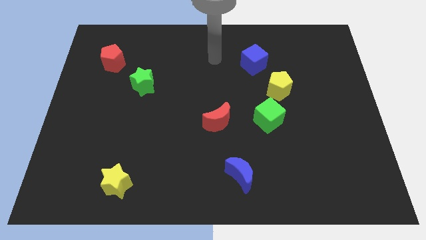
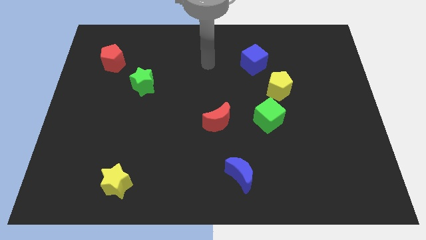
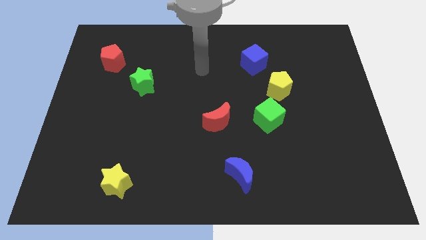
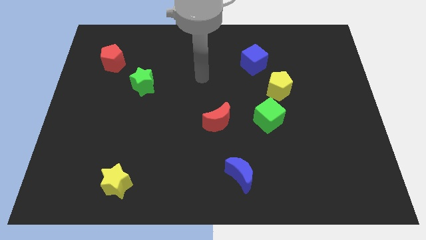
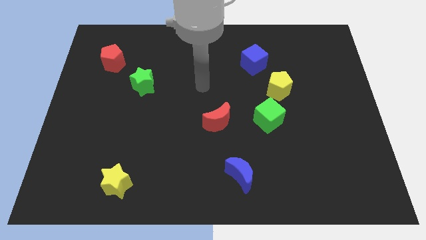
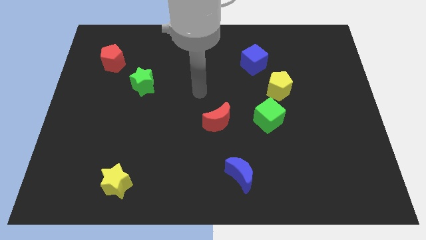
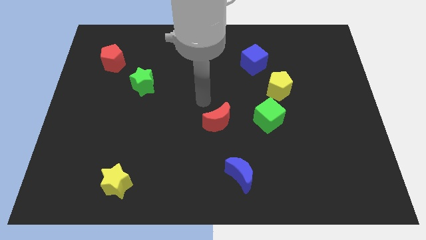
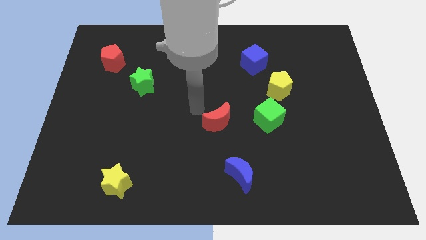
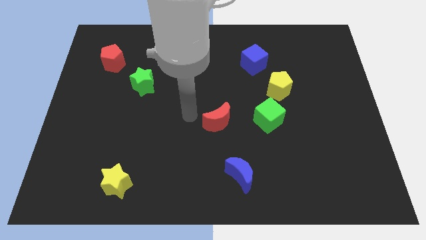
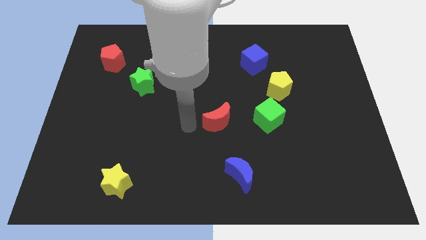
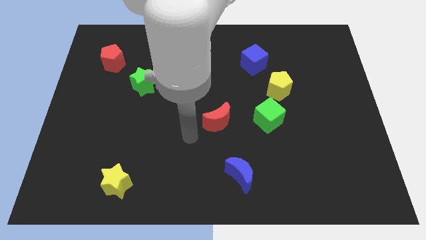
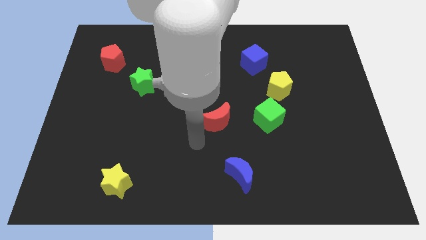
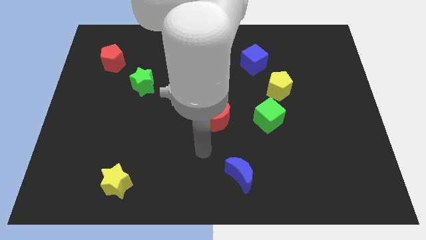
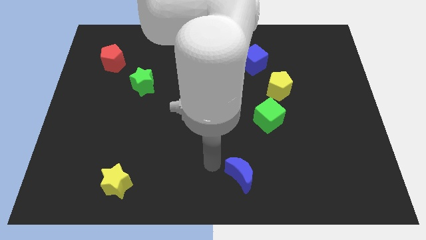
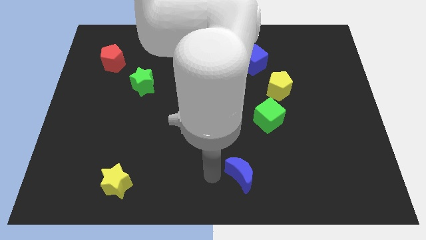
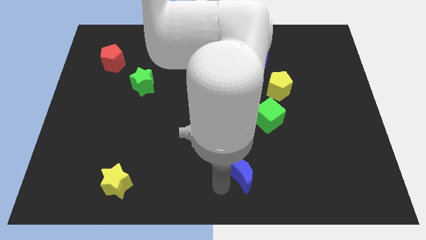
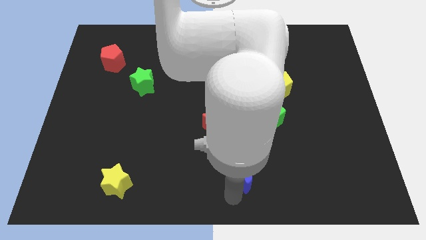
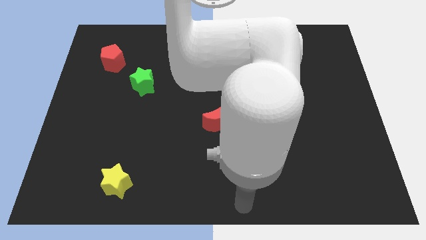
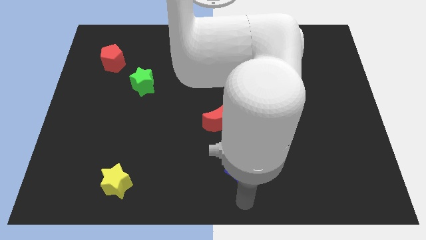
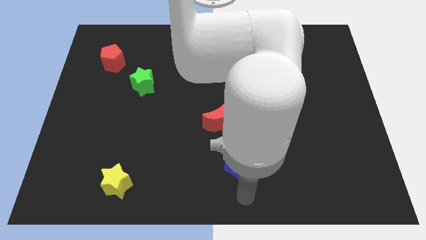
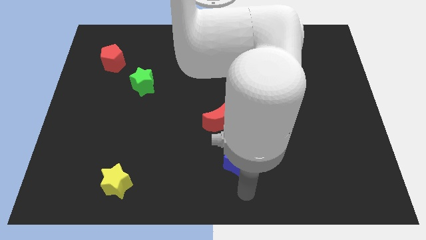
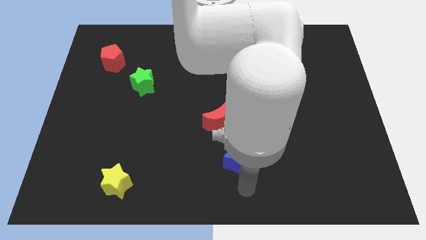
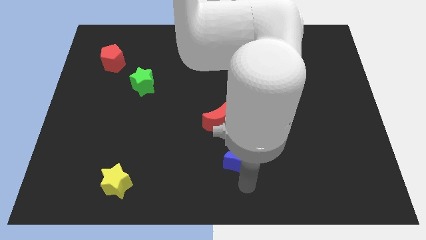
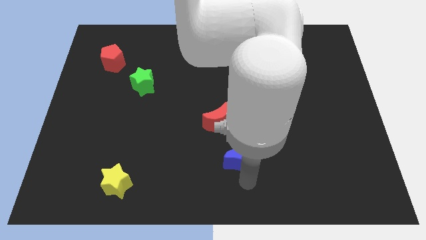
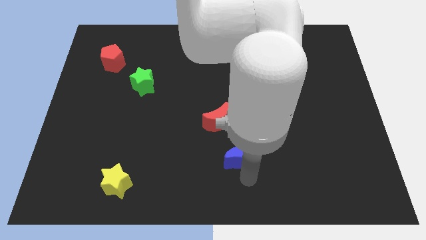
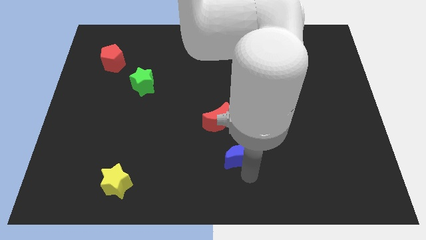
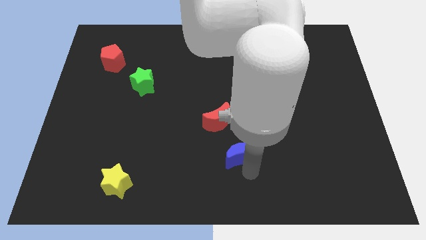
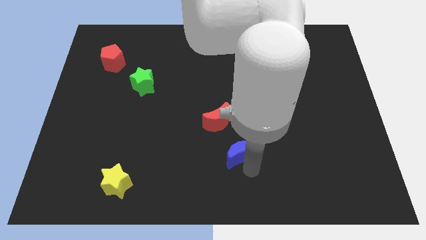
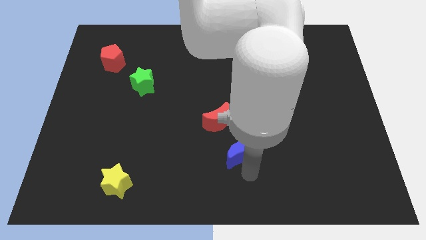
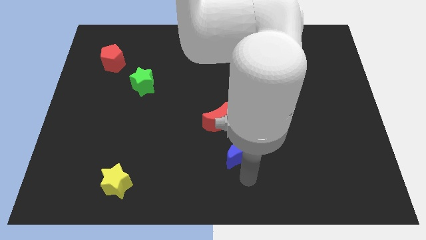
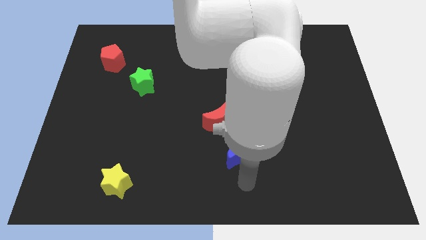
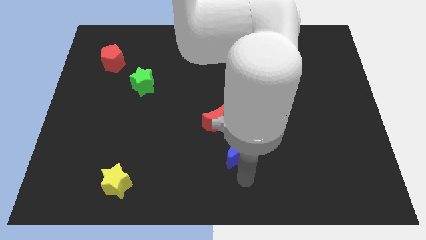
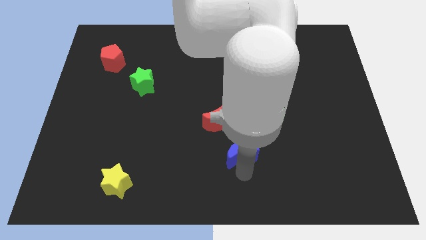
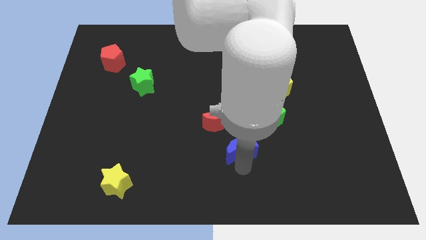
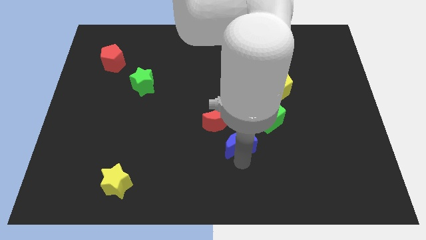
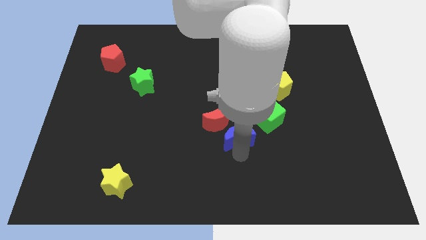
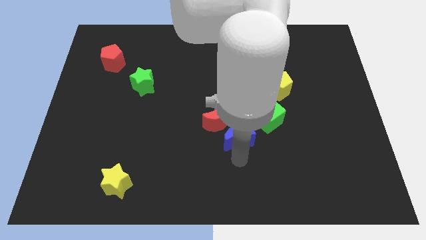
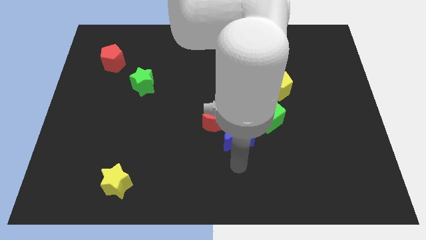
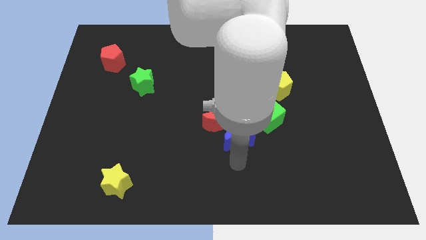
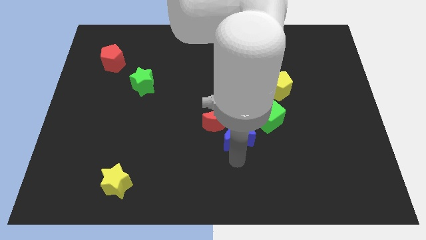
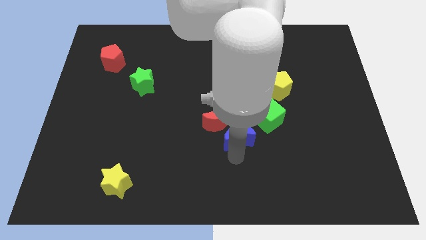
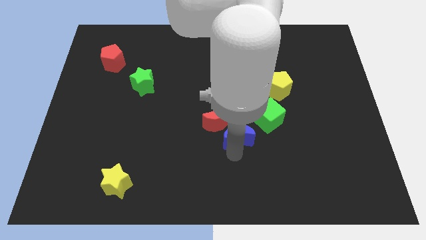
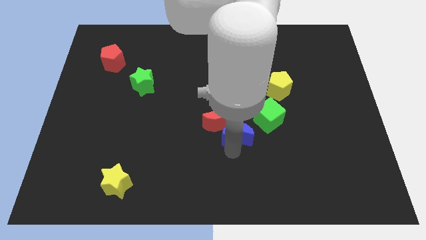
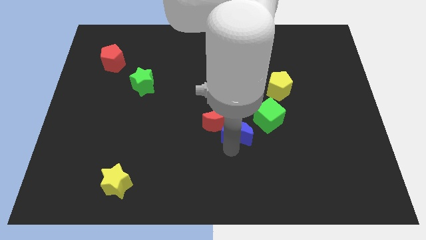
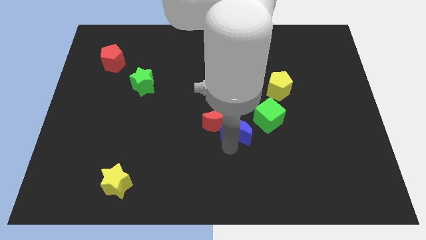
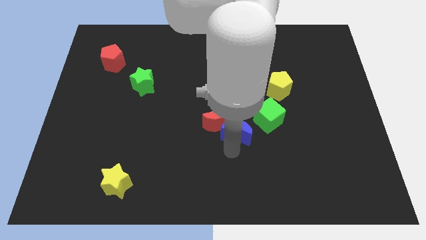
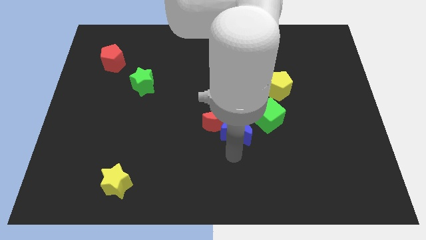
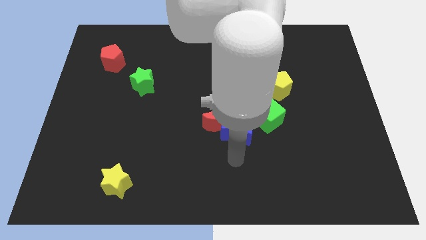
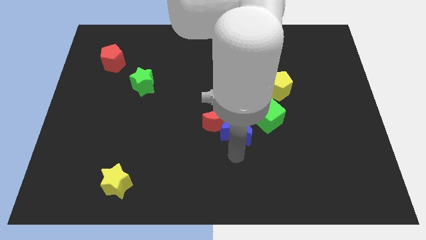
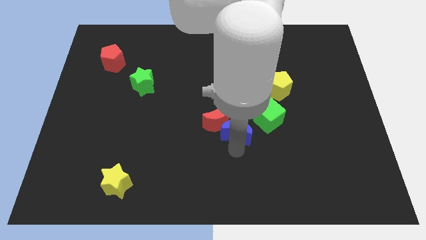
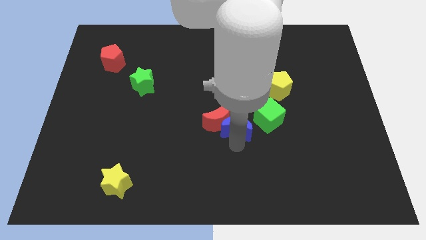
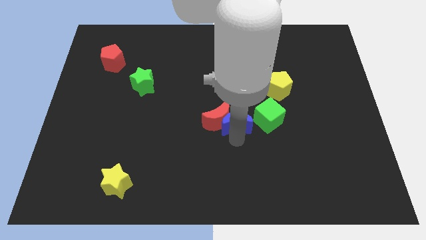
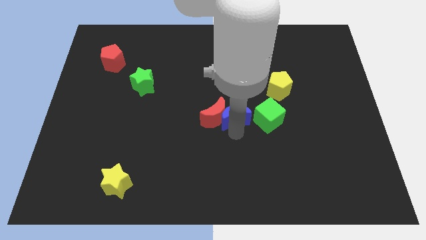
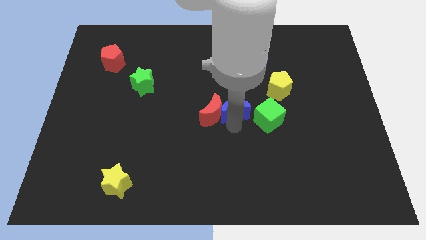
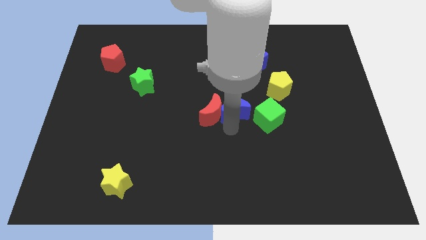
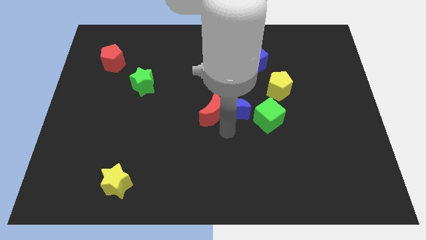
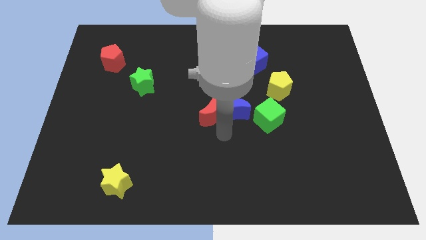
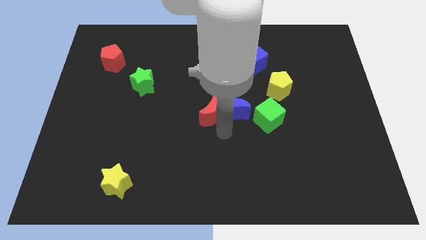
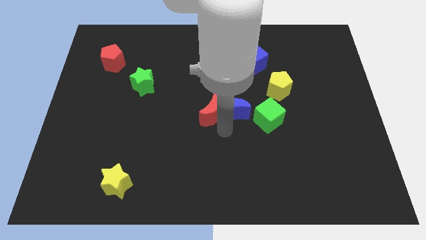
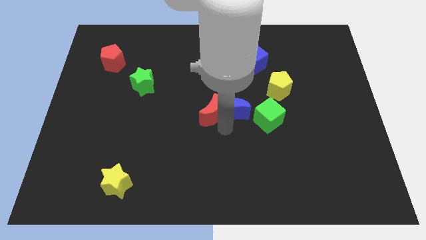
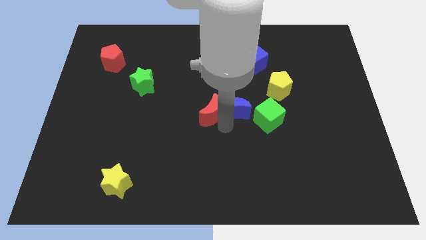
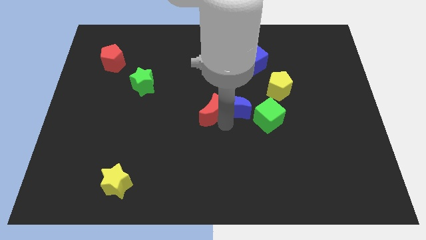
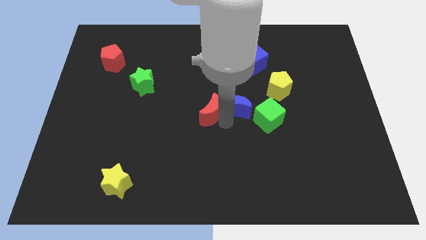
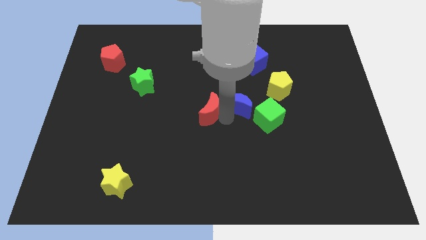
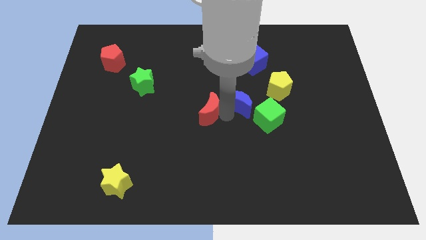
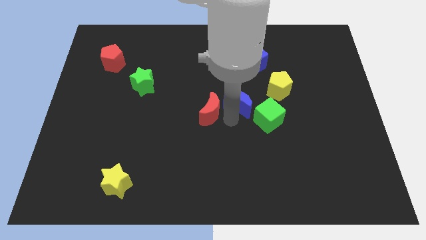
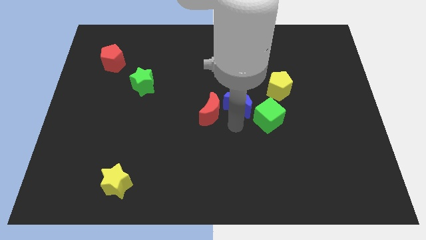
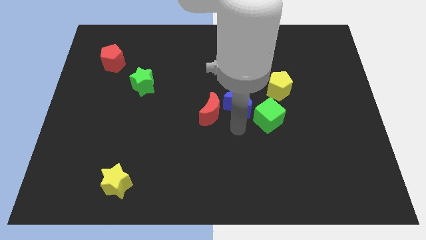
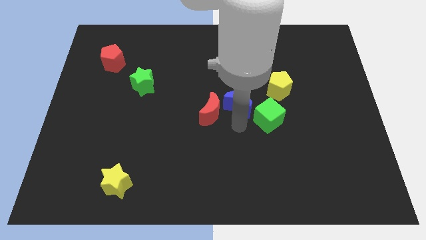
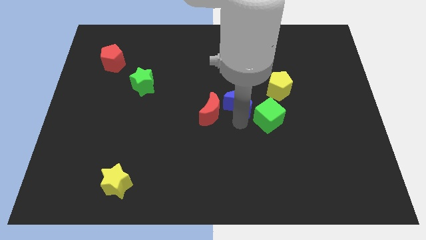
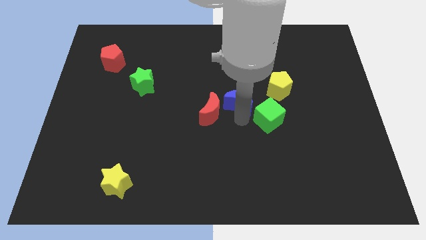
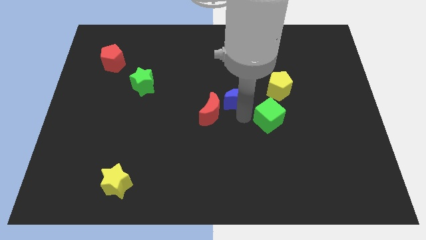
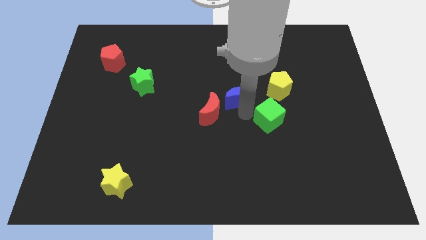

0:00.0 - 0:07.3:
slide the blue moon upwards

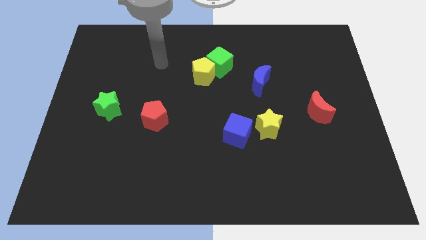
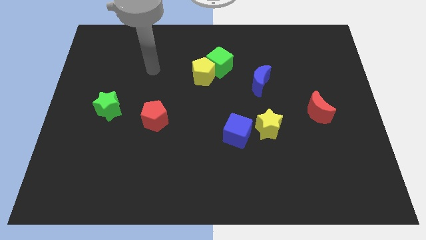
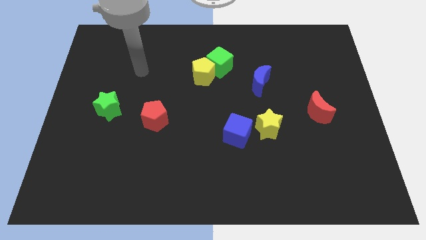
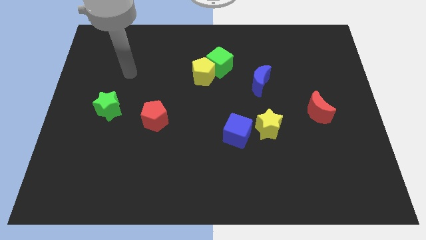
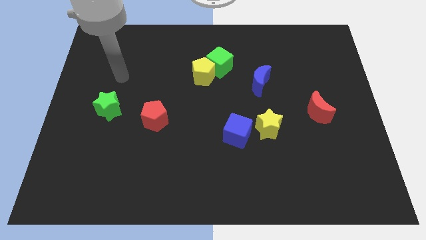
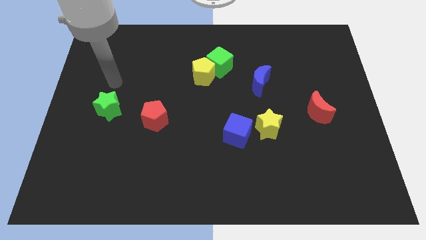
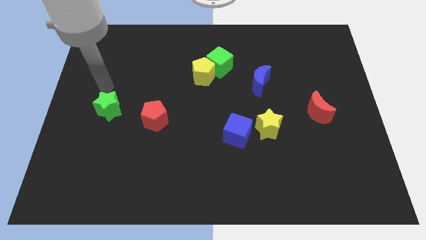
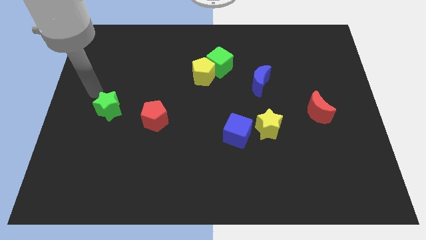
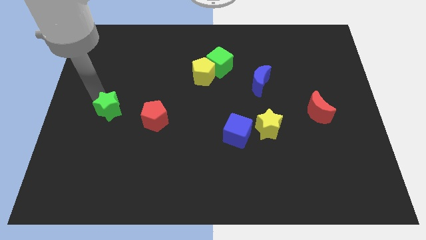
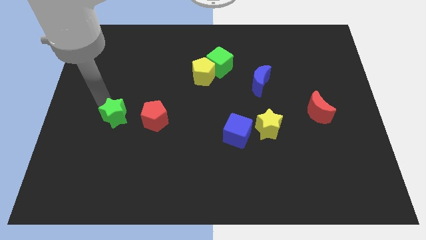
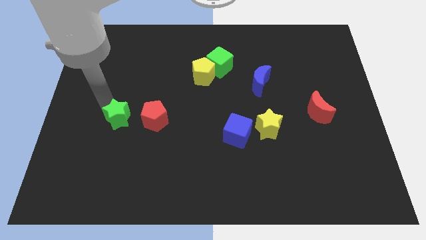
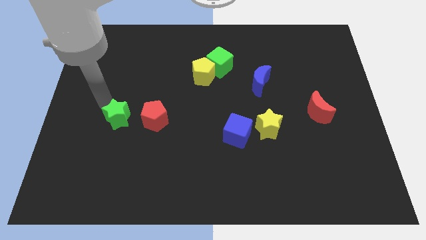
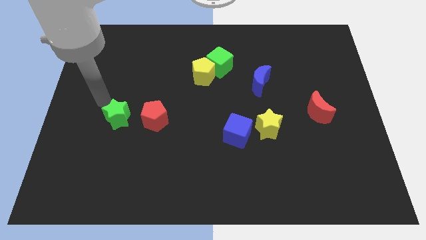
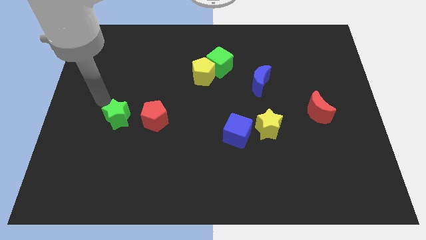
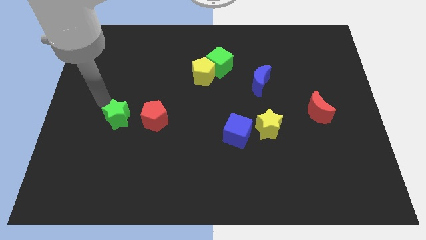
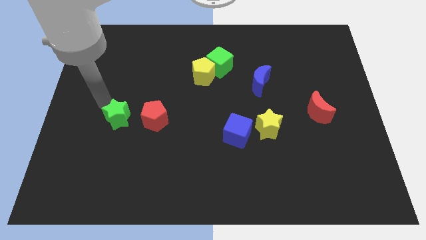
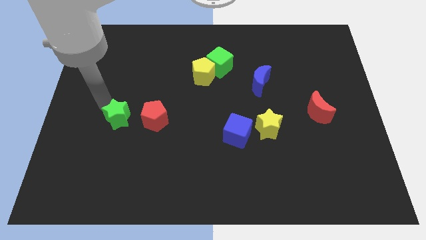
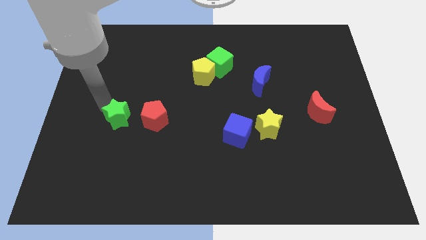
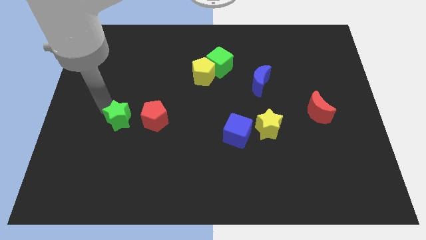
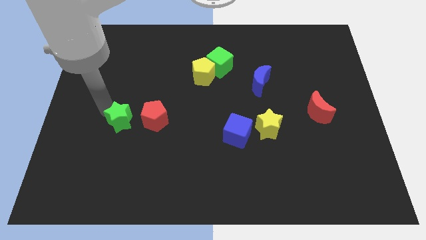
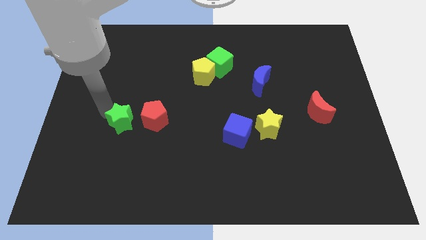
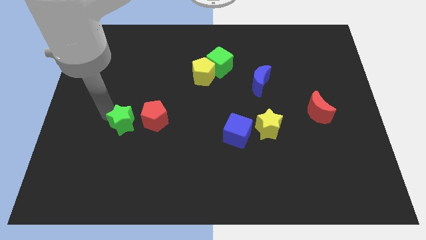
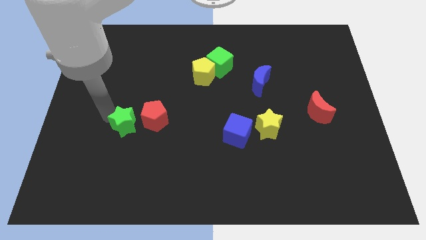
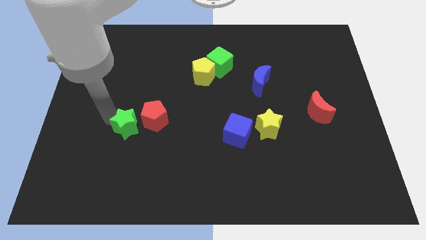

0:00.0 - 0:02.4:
push the green star a little diagonally downwards and right
